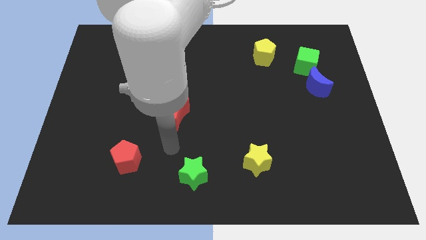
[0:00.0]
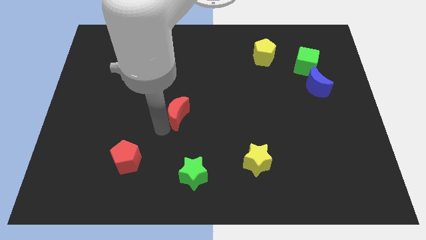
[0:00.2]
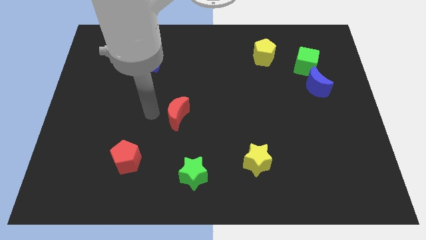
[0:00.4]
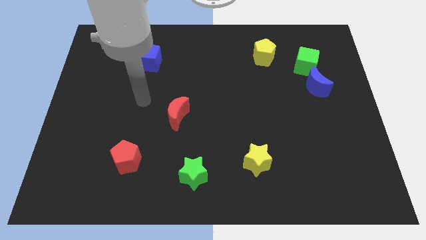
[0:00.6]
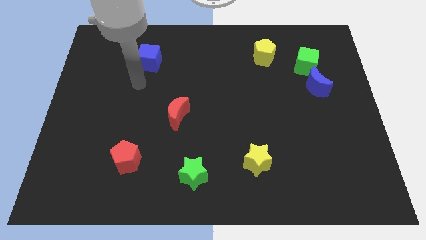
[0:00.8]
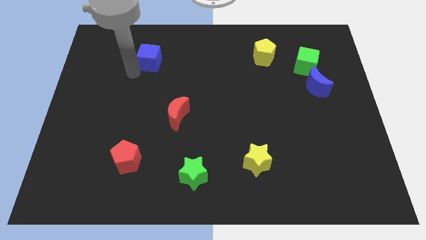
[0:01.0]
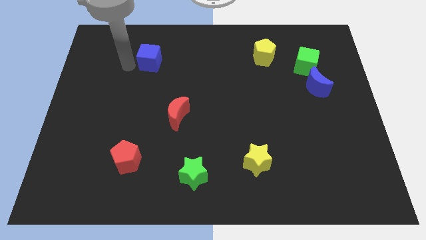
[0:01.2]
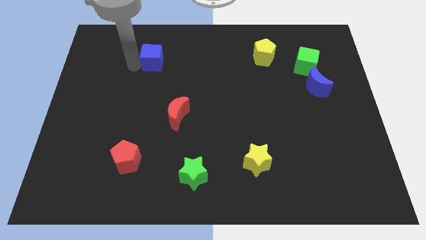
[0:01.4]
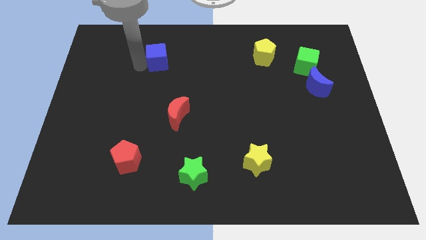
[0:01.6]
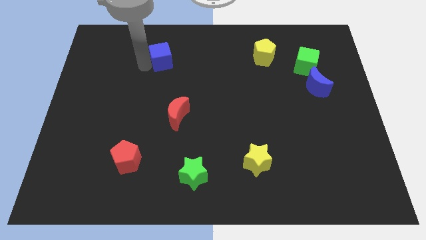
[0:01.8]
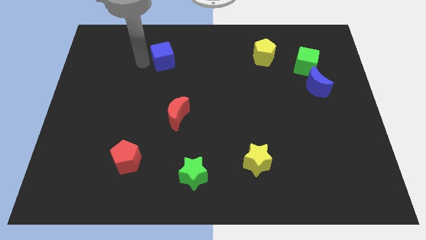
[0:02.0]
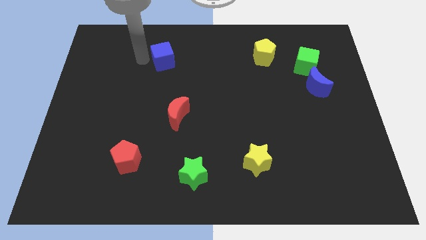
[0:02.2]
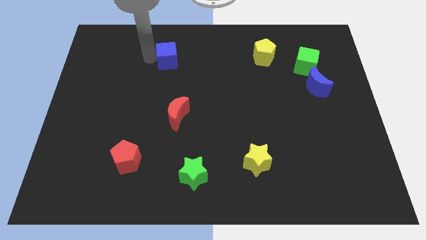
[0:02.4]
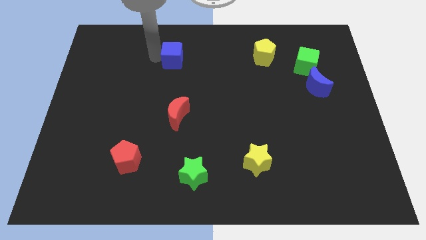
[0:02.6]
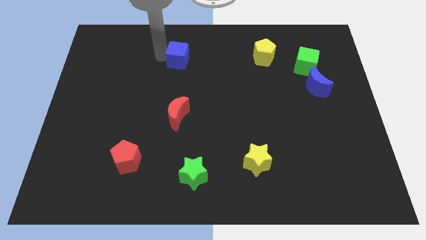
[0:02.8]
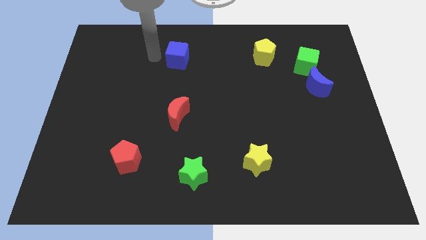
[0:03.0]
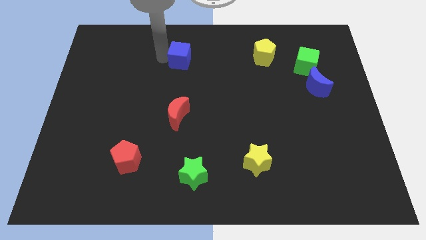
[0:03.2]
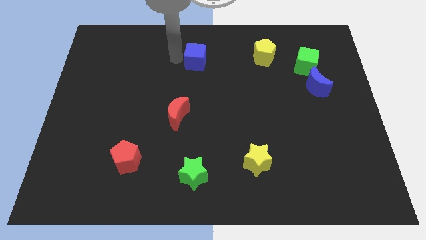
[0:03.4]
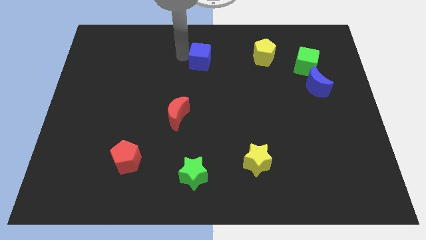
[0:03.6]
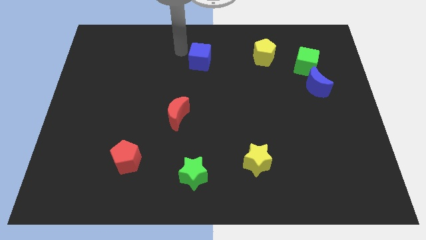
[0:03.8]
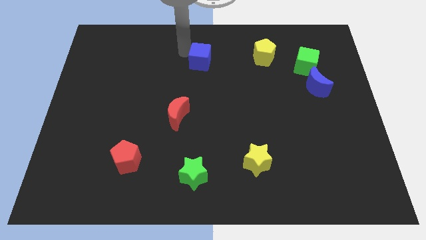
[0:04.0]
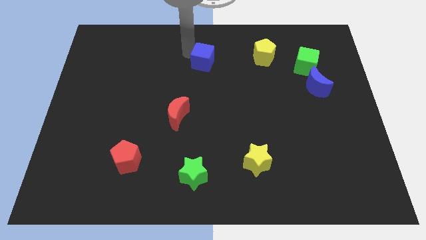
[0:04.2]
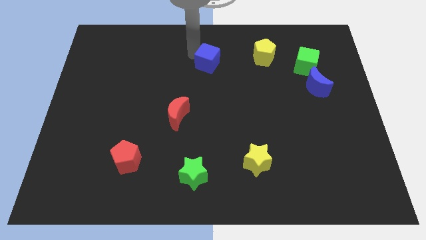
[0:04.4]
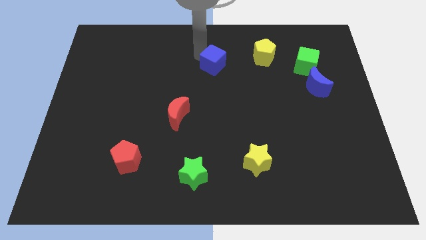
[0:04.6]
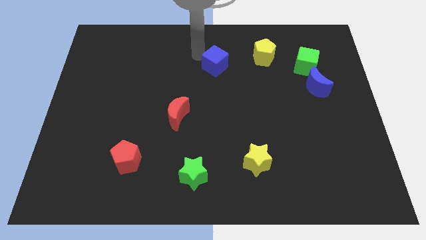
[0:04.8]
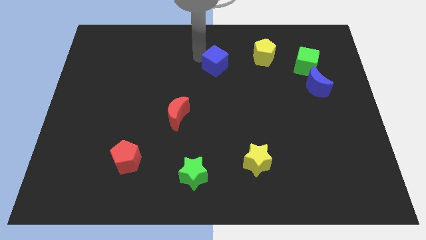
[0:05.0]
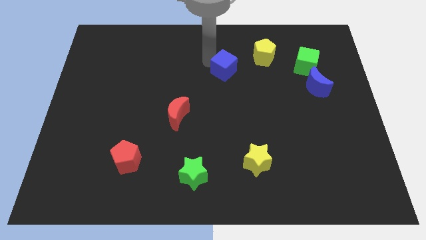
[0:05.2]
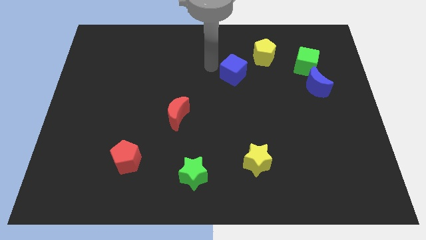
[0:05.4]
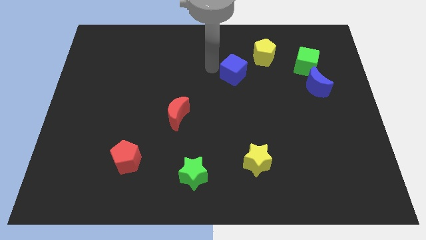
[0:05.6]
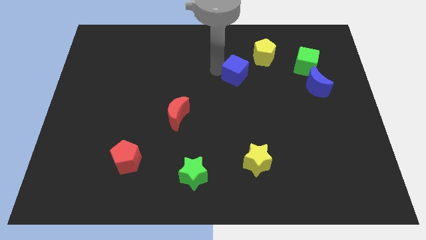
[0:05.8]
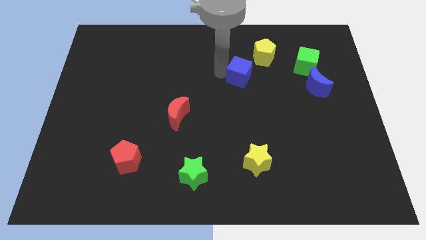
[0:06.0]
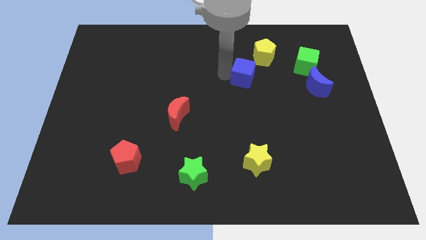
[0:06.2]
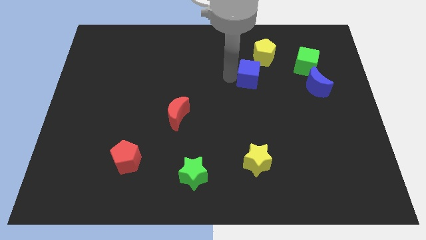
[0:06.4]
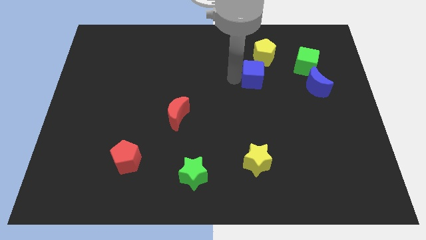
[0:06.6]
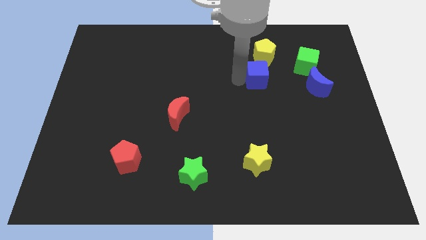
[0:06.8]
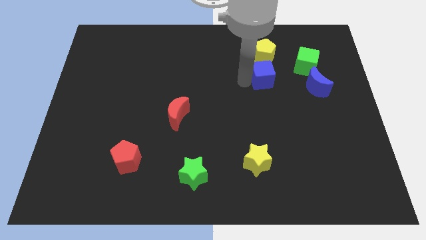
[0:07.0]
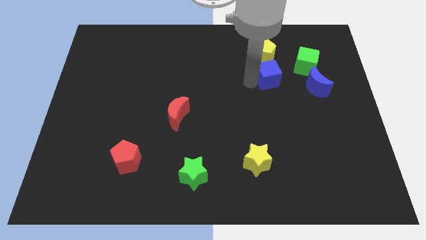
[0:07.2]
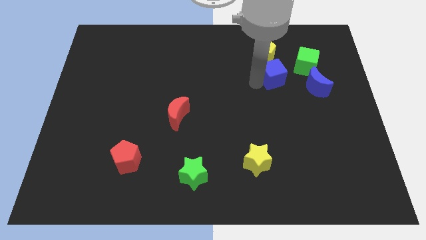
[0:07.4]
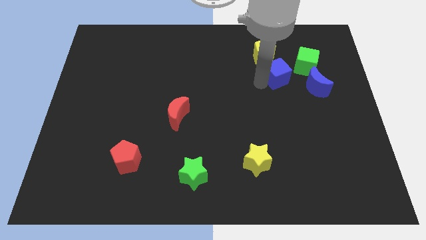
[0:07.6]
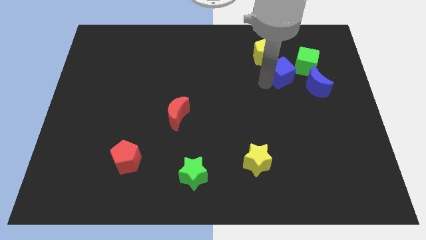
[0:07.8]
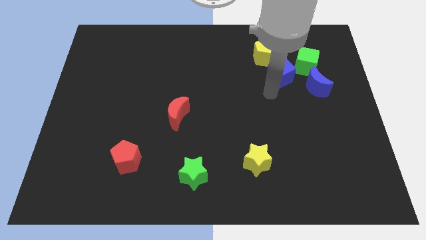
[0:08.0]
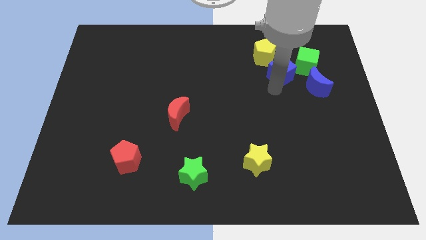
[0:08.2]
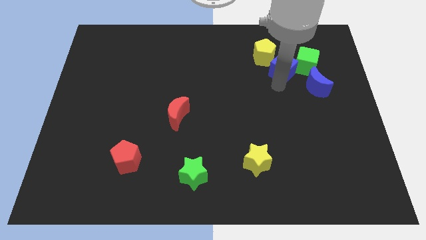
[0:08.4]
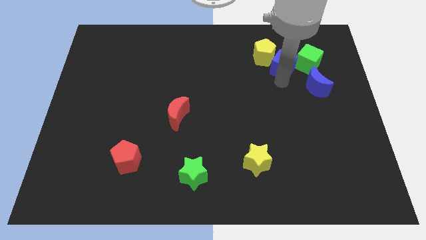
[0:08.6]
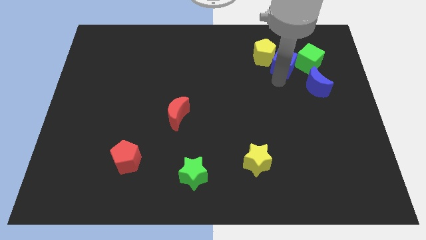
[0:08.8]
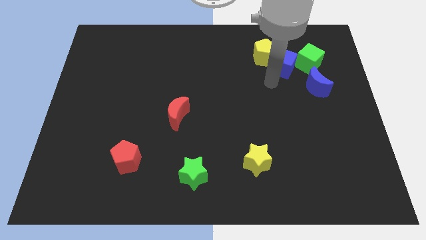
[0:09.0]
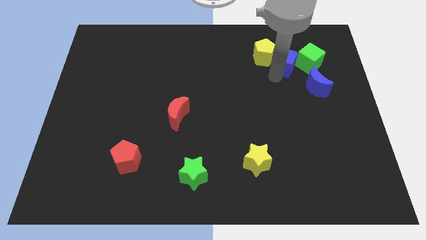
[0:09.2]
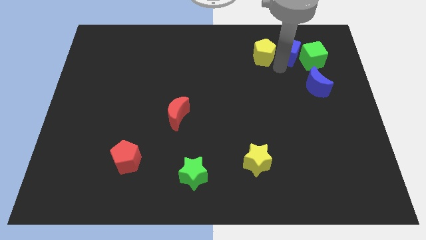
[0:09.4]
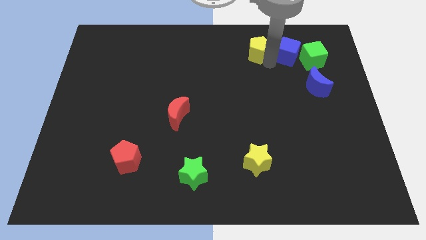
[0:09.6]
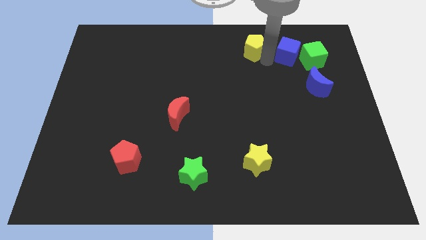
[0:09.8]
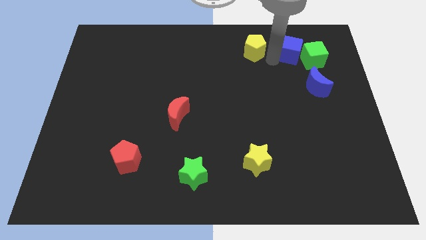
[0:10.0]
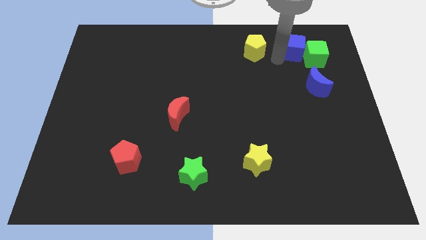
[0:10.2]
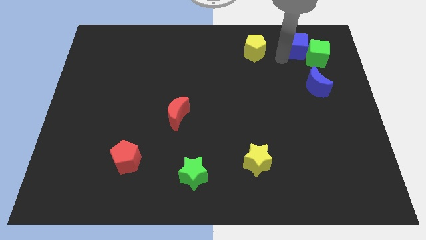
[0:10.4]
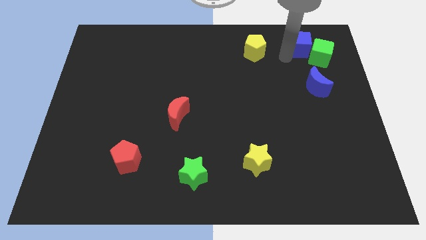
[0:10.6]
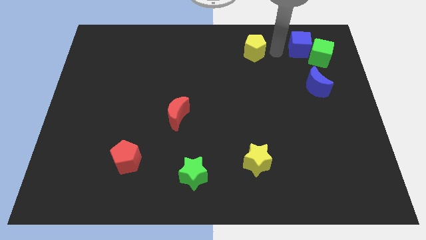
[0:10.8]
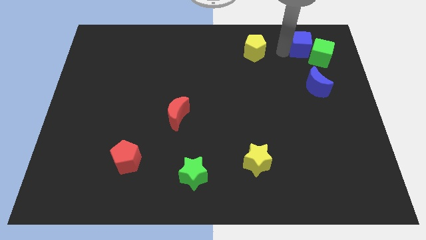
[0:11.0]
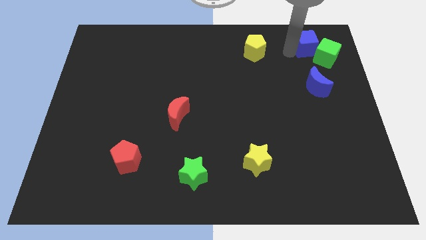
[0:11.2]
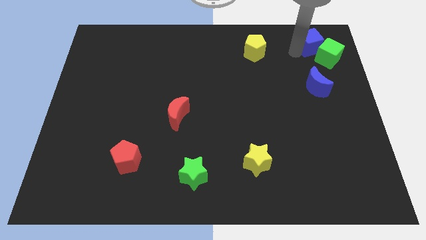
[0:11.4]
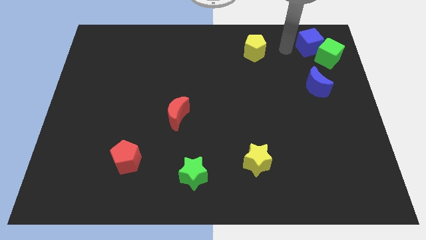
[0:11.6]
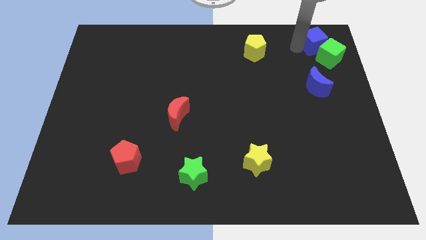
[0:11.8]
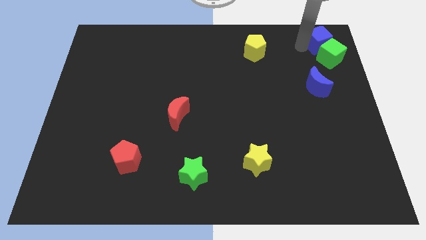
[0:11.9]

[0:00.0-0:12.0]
push the blue cube to the top right

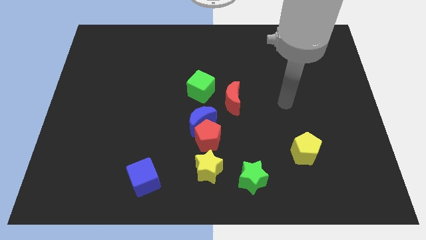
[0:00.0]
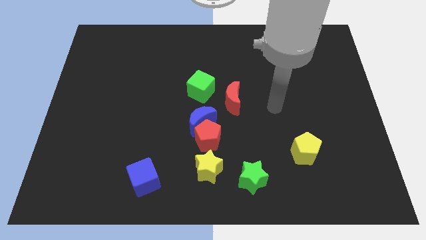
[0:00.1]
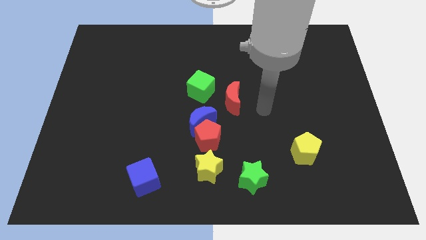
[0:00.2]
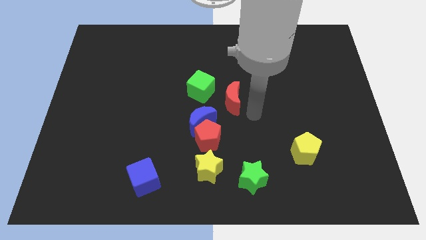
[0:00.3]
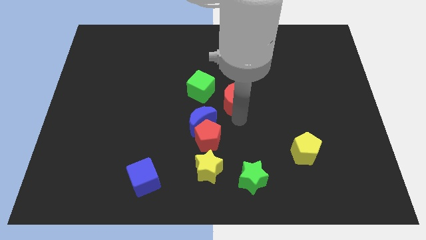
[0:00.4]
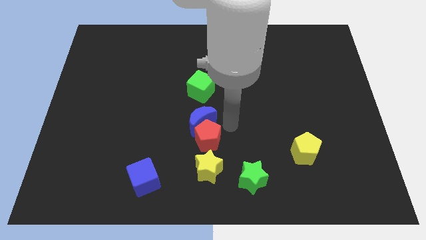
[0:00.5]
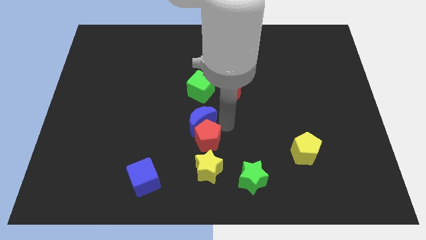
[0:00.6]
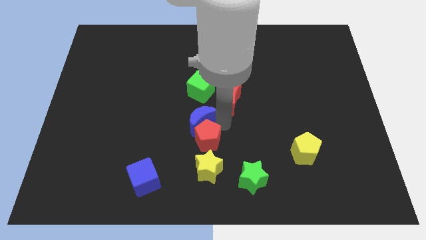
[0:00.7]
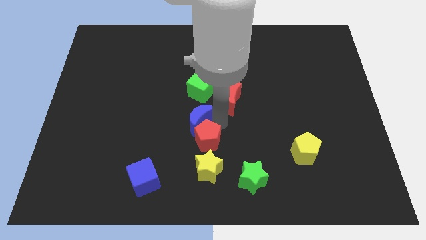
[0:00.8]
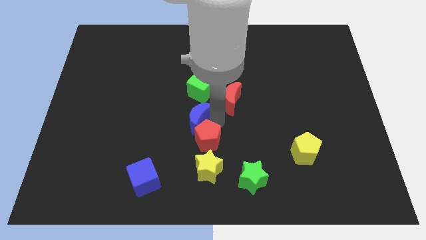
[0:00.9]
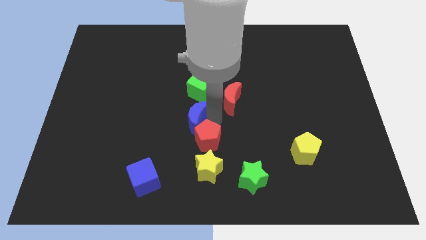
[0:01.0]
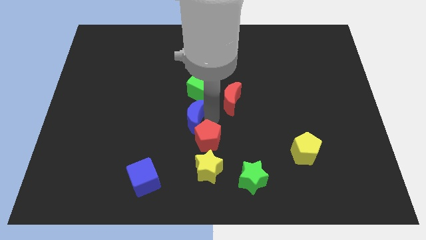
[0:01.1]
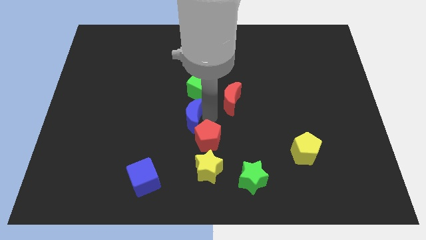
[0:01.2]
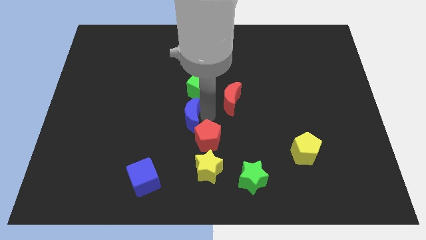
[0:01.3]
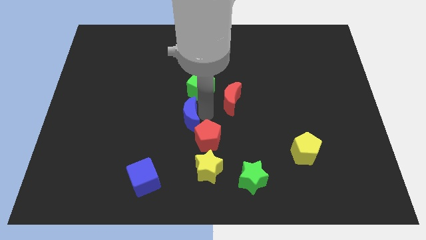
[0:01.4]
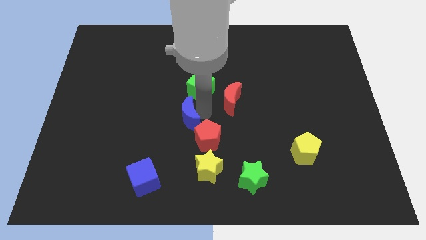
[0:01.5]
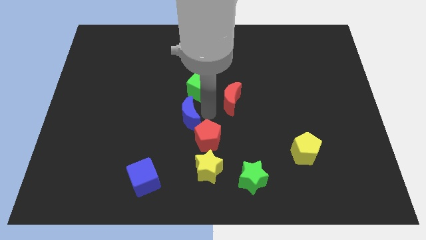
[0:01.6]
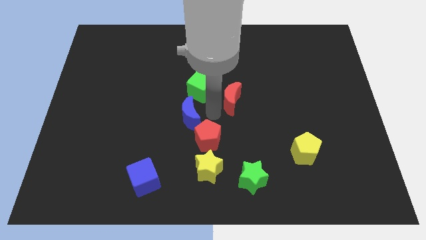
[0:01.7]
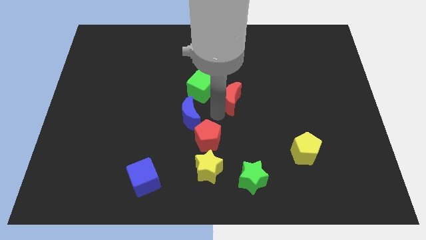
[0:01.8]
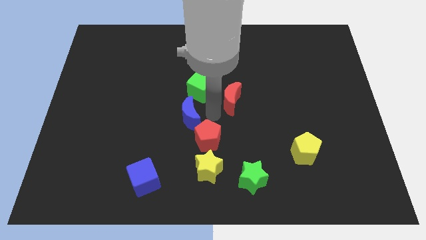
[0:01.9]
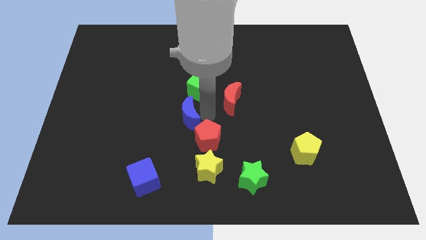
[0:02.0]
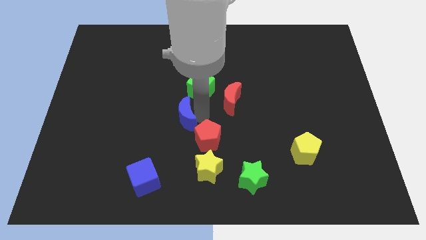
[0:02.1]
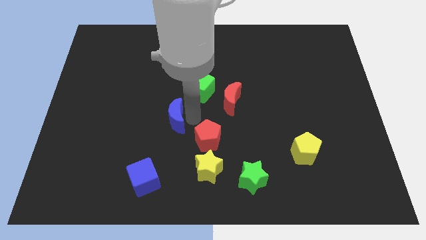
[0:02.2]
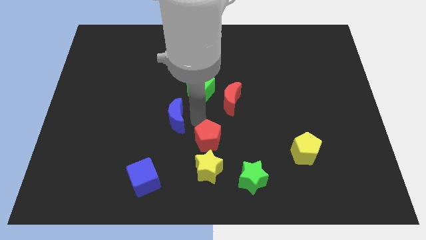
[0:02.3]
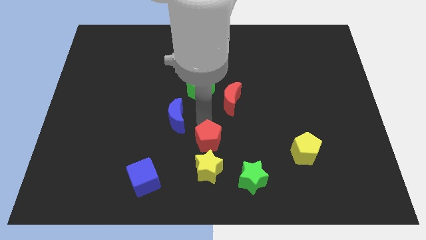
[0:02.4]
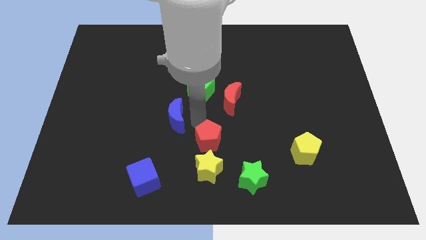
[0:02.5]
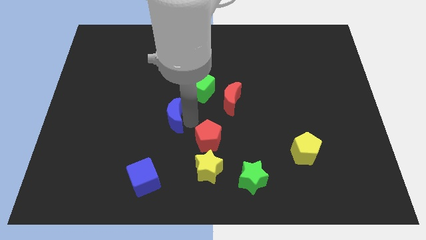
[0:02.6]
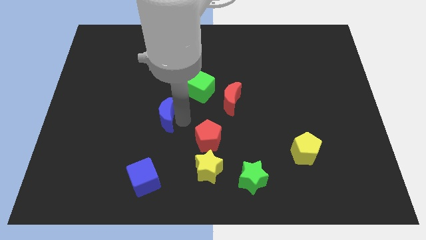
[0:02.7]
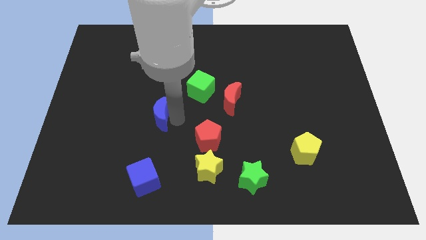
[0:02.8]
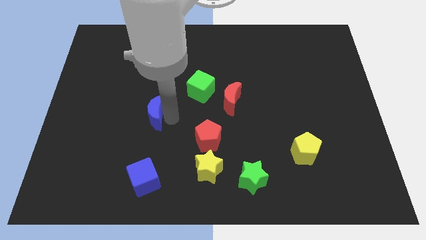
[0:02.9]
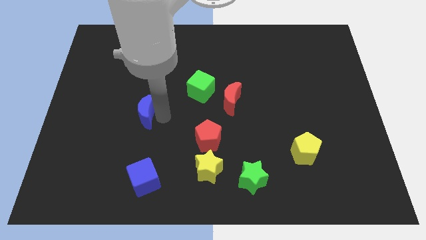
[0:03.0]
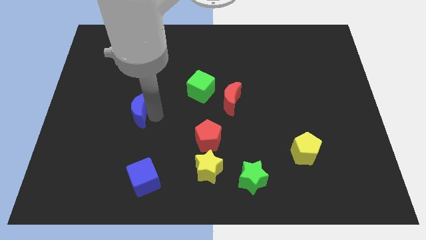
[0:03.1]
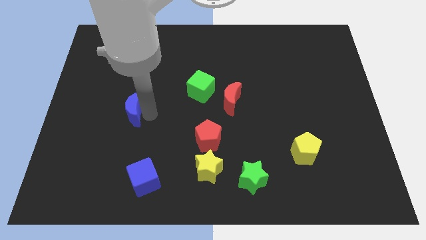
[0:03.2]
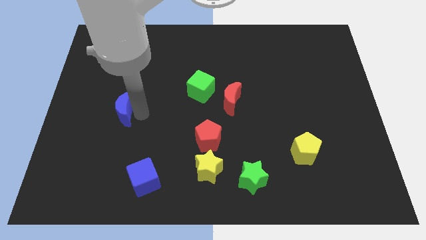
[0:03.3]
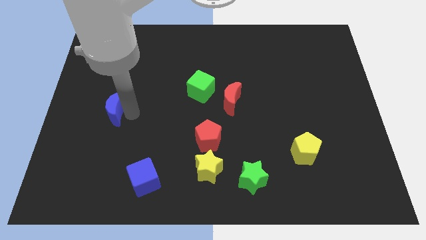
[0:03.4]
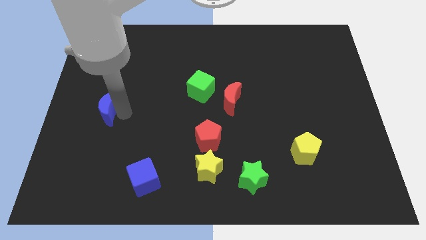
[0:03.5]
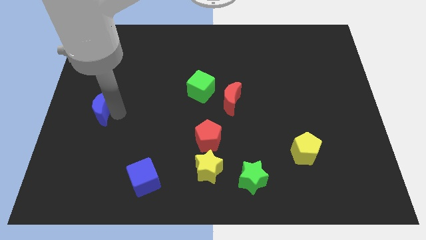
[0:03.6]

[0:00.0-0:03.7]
move the blue moon to the left side
